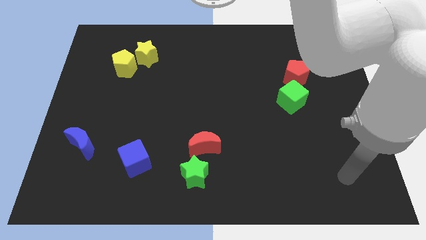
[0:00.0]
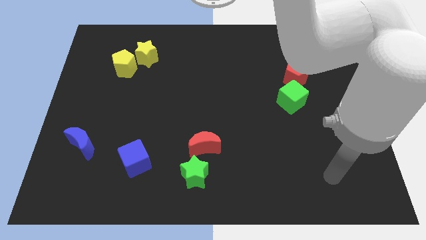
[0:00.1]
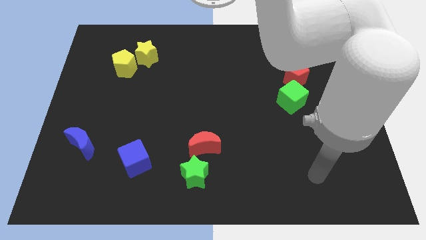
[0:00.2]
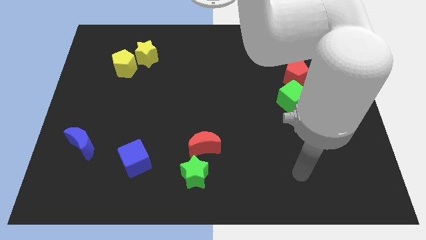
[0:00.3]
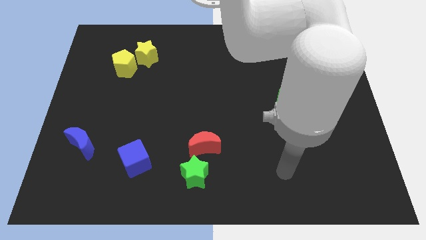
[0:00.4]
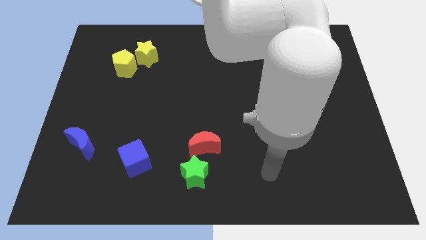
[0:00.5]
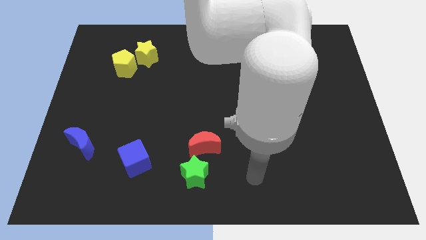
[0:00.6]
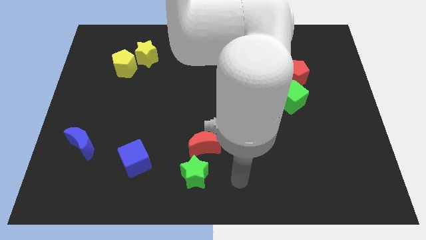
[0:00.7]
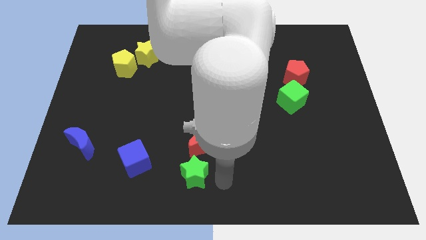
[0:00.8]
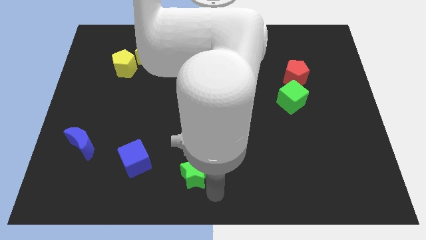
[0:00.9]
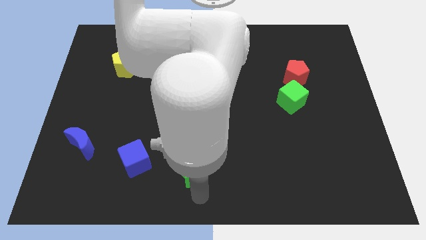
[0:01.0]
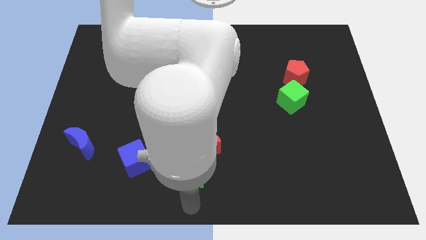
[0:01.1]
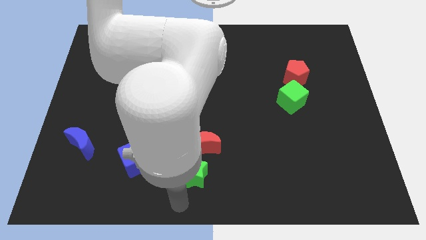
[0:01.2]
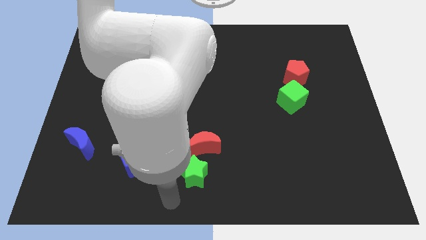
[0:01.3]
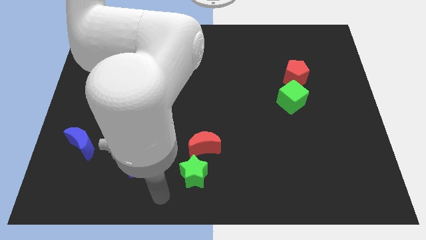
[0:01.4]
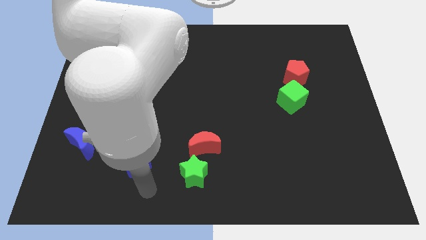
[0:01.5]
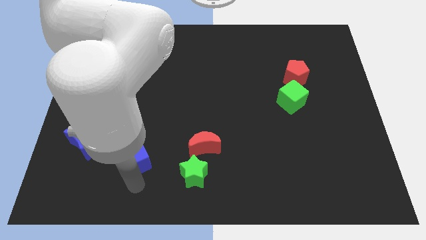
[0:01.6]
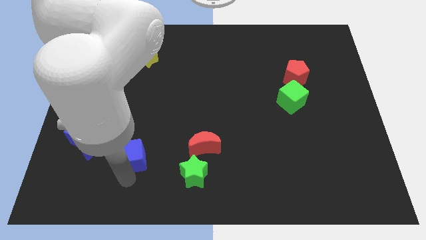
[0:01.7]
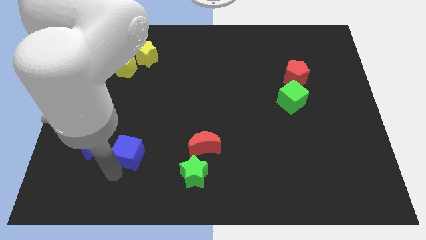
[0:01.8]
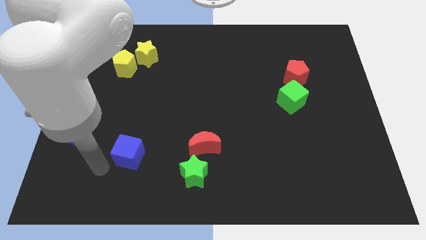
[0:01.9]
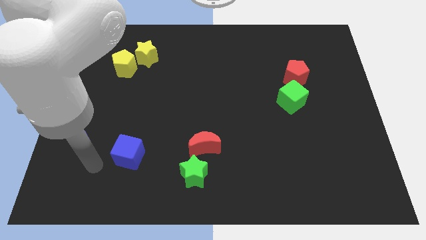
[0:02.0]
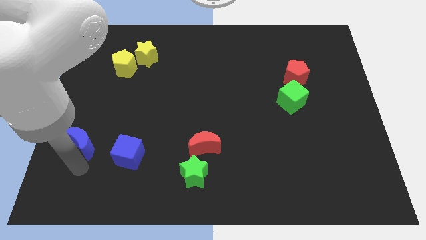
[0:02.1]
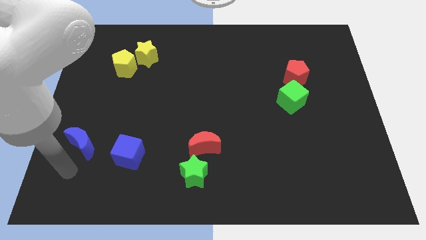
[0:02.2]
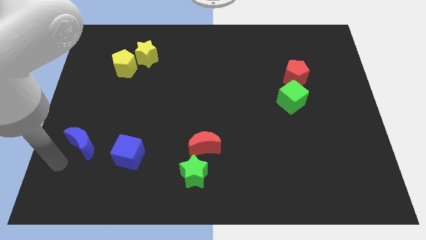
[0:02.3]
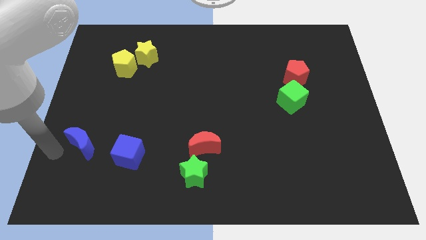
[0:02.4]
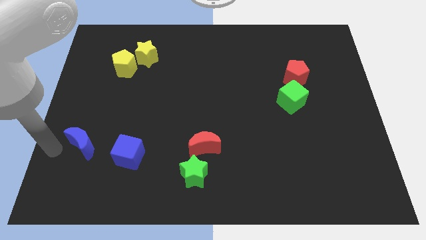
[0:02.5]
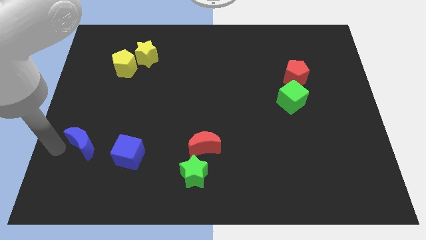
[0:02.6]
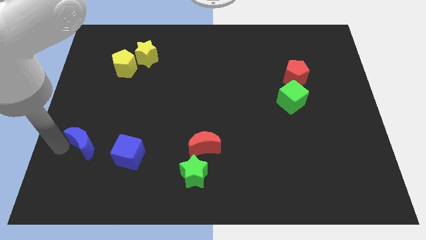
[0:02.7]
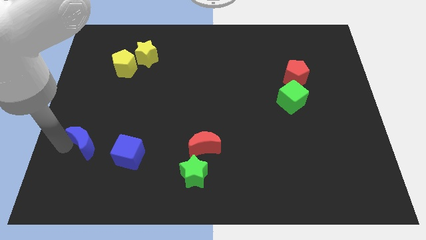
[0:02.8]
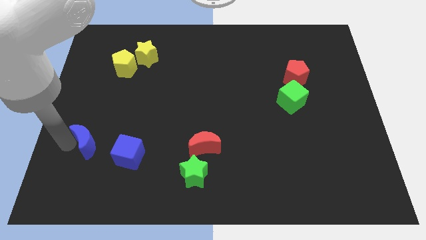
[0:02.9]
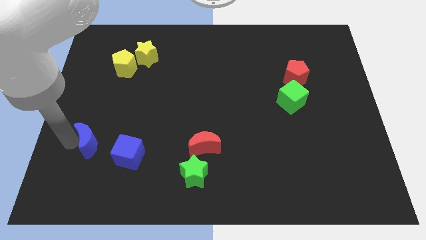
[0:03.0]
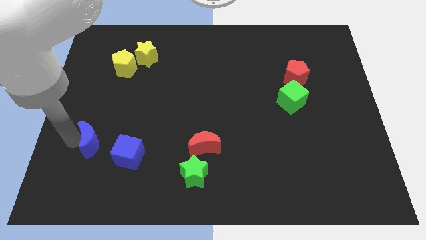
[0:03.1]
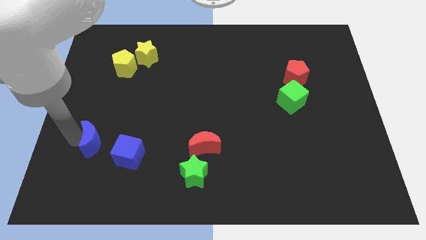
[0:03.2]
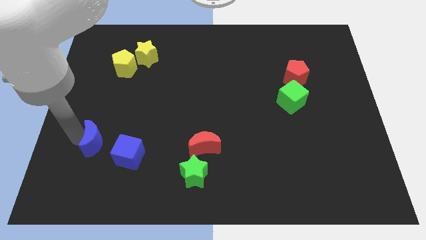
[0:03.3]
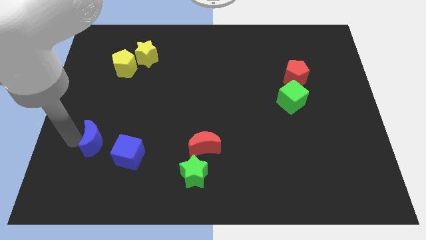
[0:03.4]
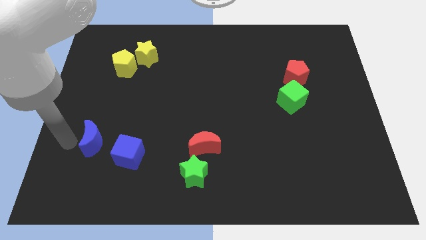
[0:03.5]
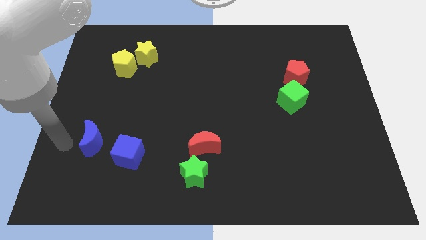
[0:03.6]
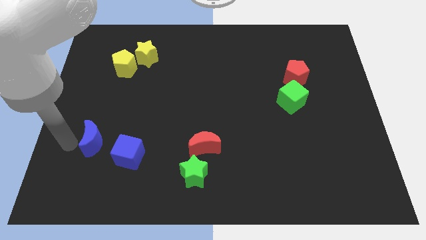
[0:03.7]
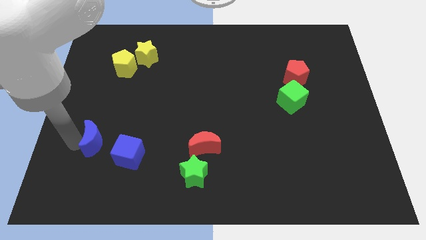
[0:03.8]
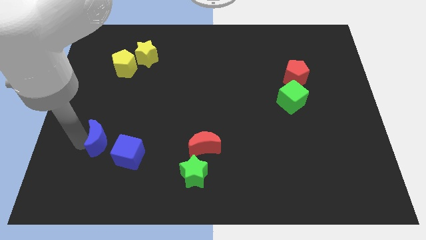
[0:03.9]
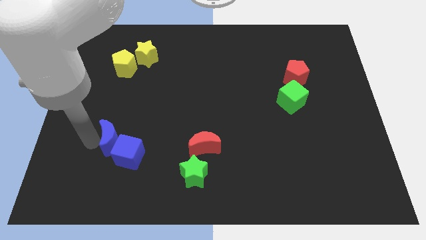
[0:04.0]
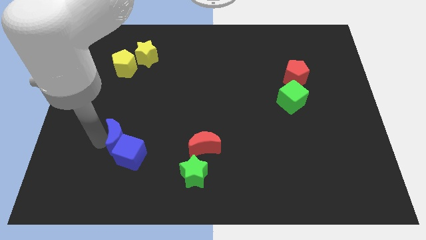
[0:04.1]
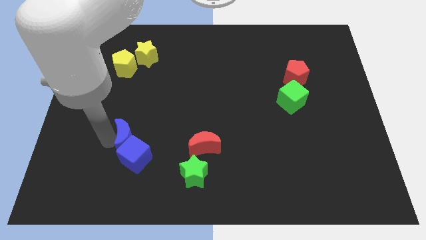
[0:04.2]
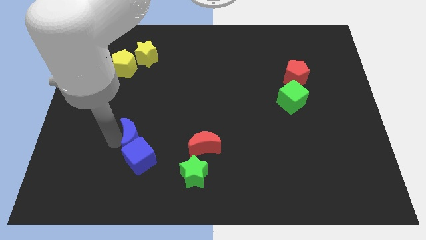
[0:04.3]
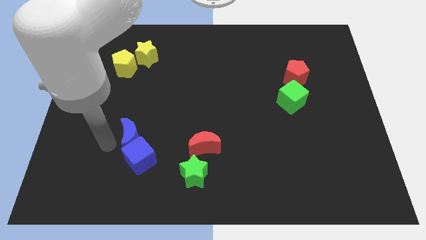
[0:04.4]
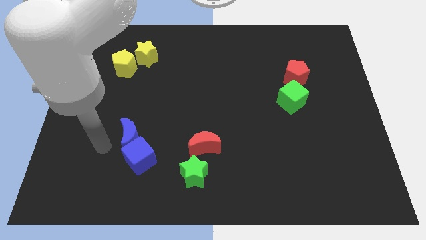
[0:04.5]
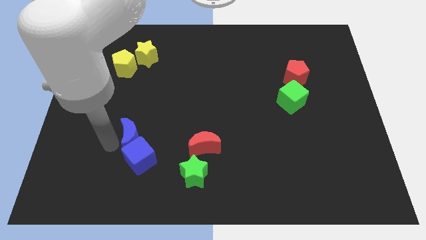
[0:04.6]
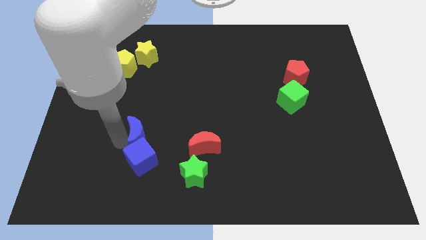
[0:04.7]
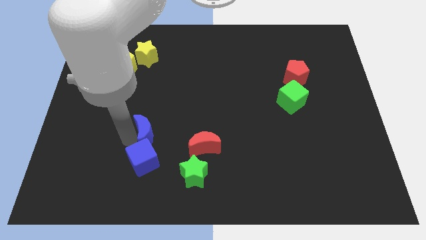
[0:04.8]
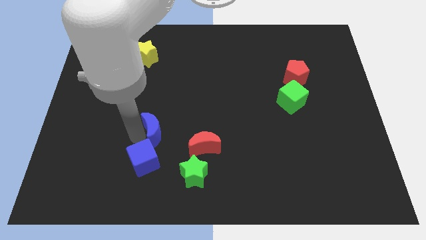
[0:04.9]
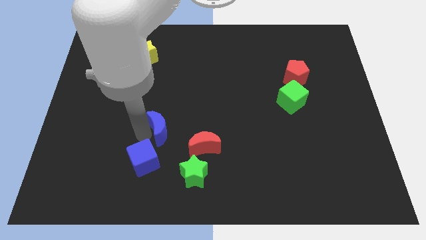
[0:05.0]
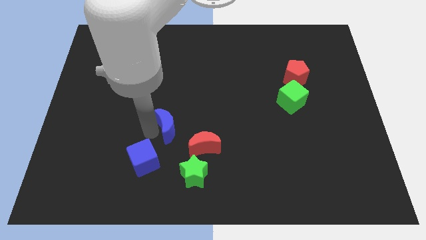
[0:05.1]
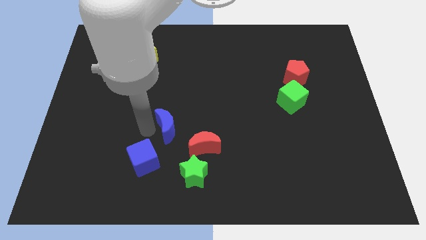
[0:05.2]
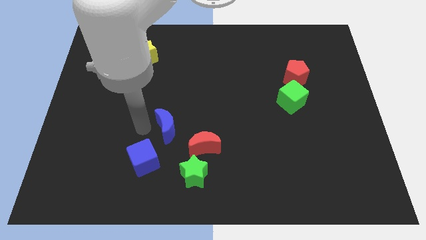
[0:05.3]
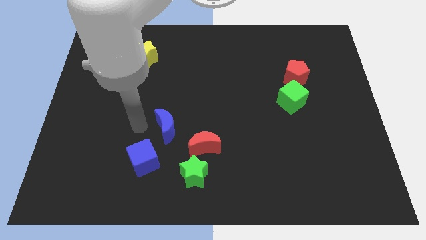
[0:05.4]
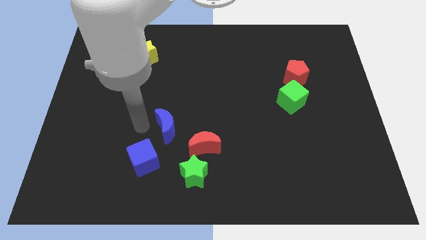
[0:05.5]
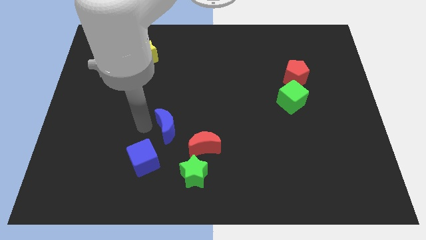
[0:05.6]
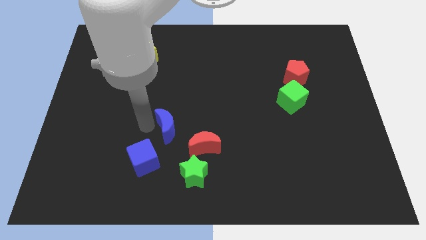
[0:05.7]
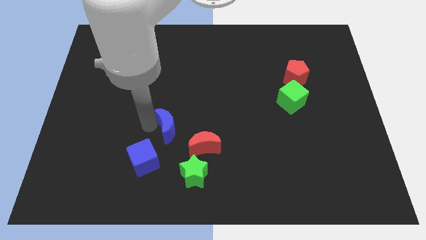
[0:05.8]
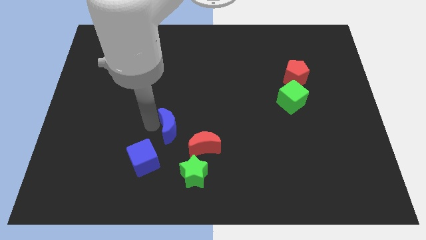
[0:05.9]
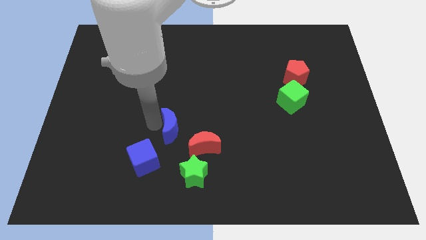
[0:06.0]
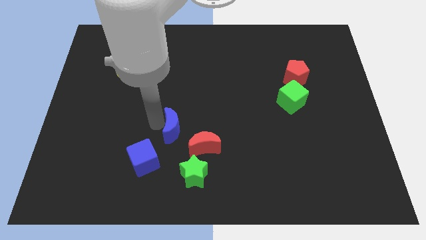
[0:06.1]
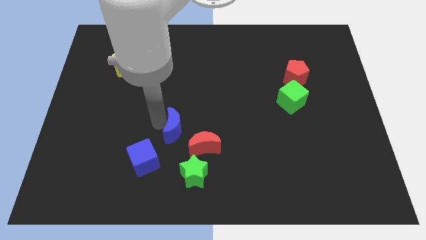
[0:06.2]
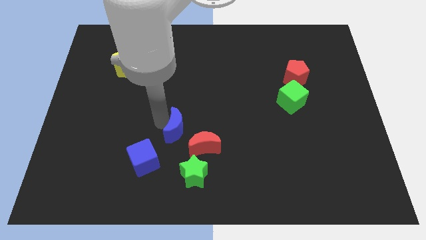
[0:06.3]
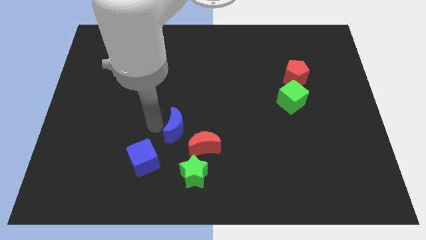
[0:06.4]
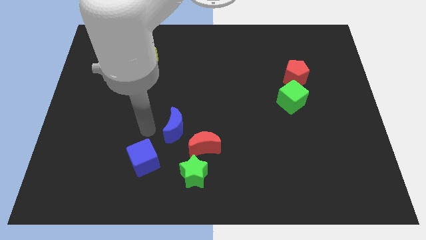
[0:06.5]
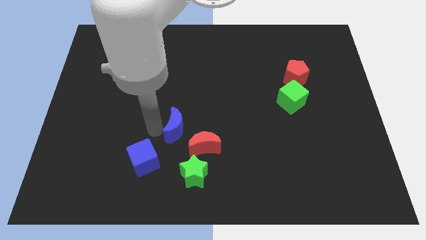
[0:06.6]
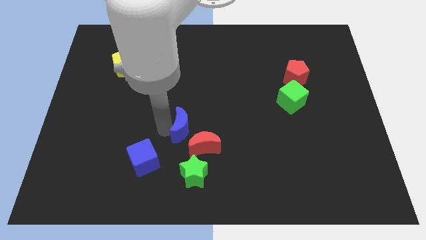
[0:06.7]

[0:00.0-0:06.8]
slide the blue moon right

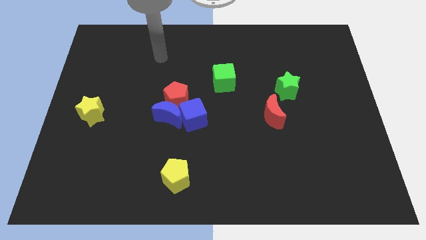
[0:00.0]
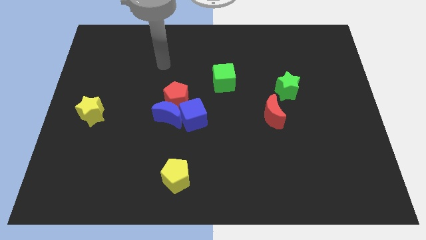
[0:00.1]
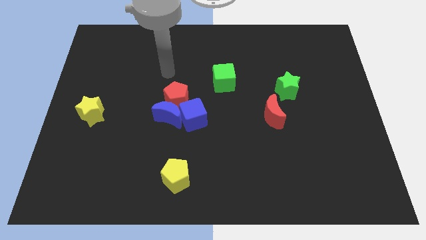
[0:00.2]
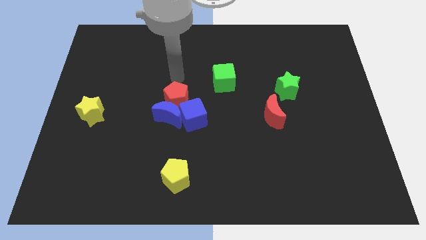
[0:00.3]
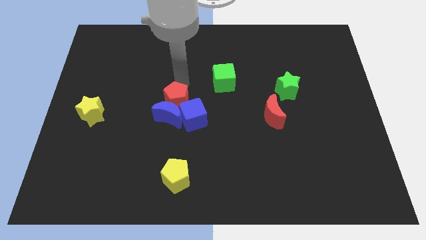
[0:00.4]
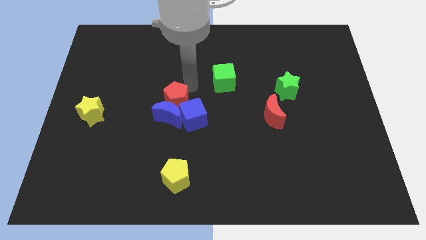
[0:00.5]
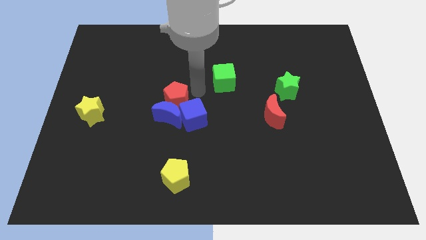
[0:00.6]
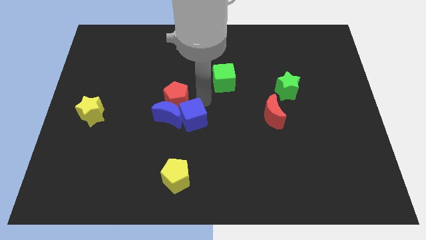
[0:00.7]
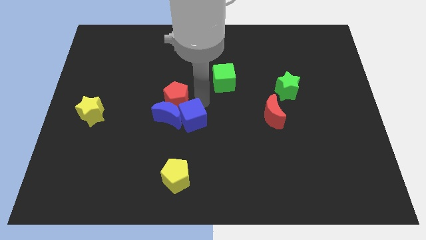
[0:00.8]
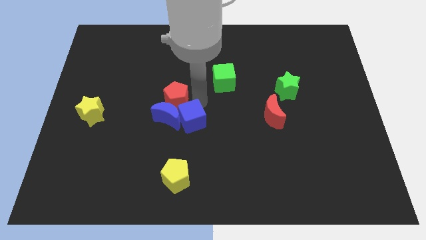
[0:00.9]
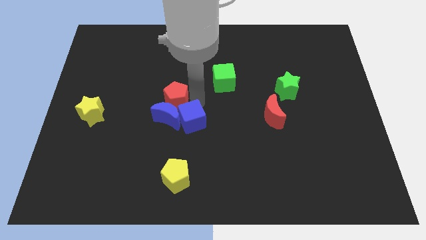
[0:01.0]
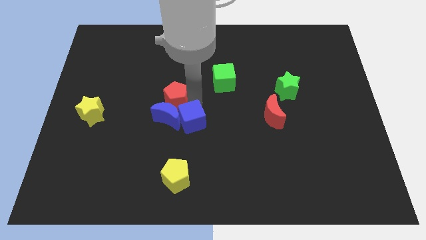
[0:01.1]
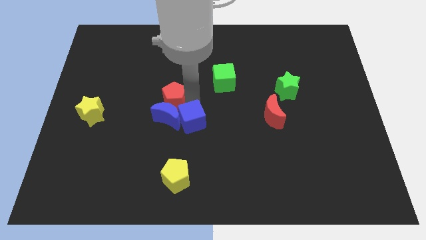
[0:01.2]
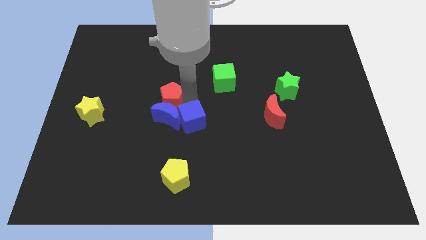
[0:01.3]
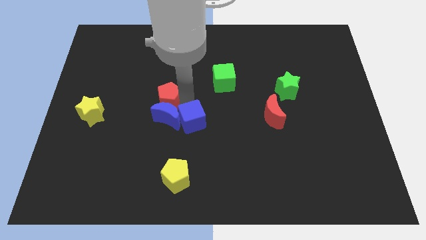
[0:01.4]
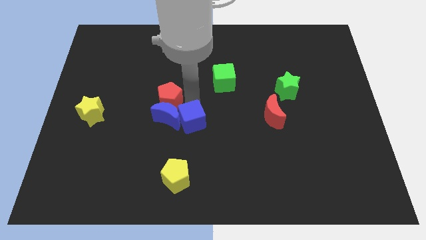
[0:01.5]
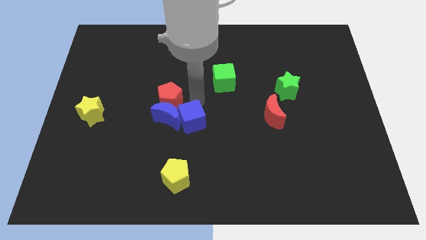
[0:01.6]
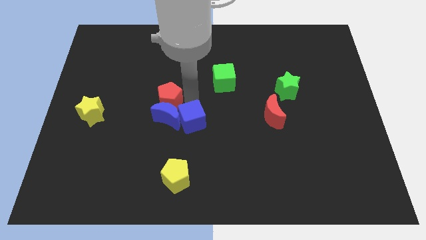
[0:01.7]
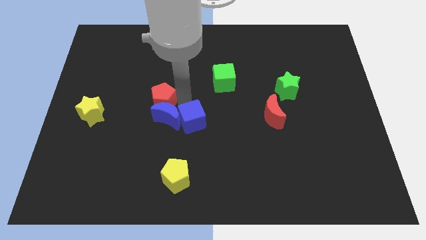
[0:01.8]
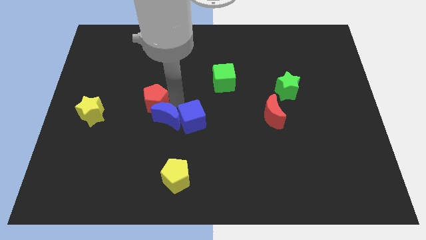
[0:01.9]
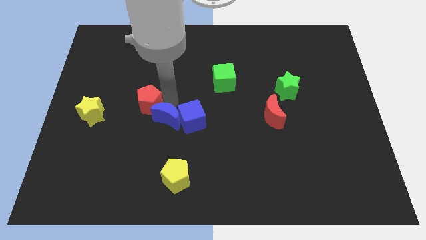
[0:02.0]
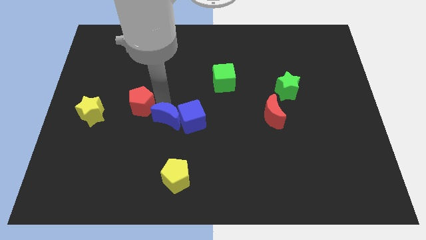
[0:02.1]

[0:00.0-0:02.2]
push the red pentagon left a bit
